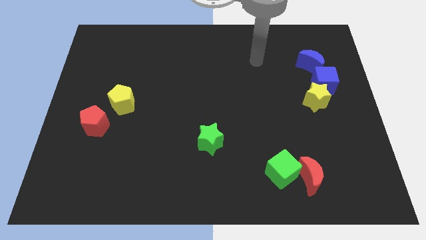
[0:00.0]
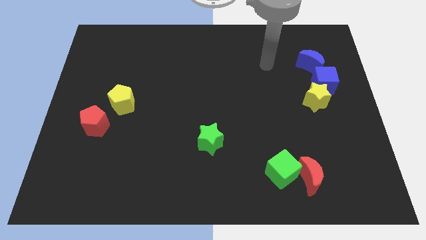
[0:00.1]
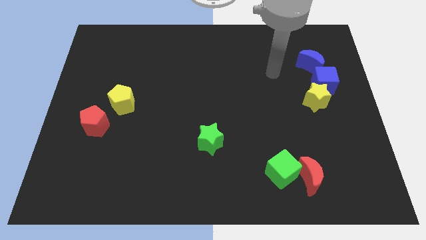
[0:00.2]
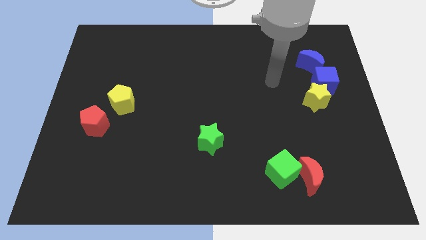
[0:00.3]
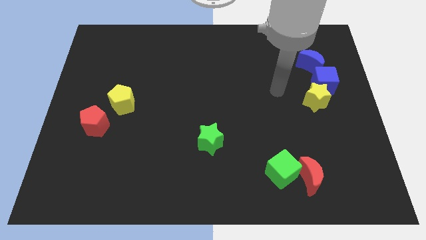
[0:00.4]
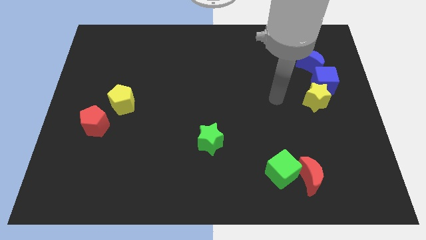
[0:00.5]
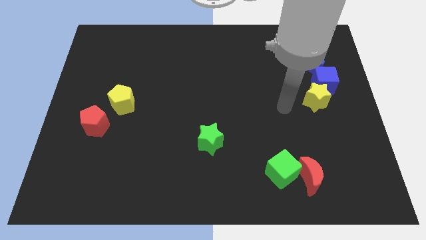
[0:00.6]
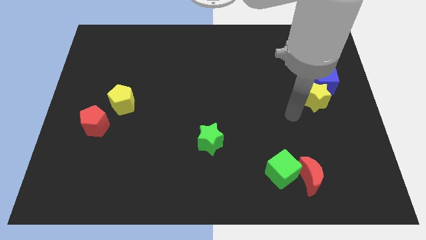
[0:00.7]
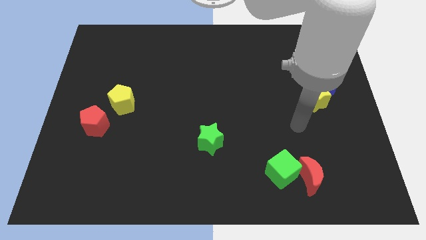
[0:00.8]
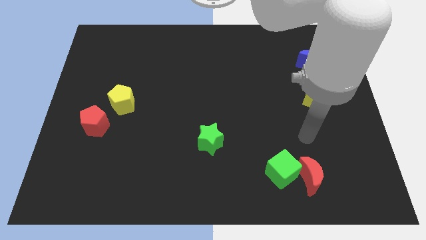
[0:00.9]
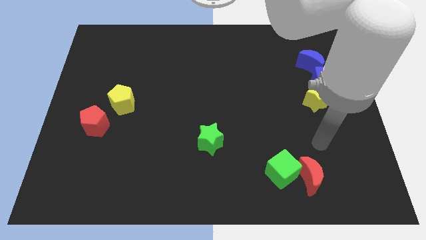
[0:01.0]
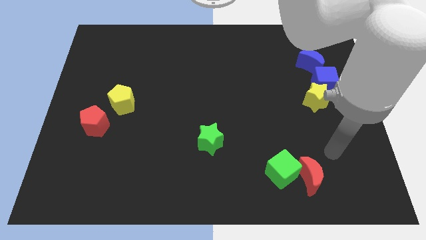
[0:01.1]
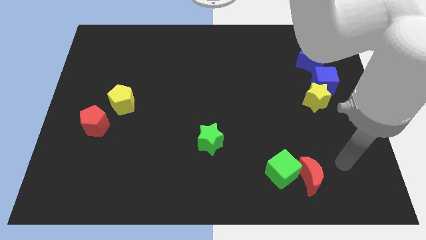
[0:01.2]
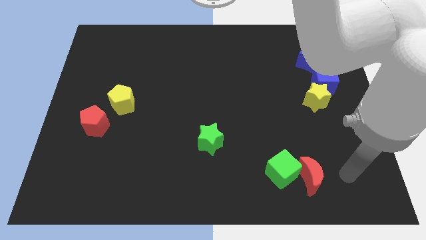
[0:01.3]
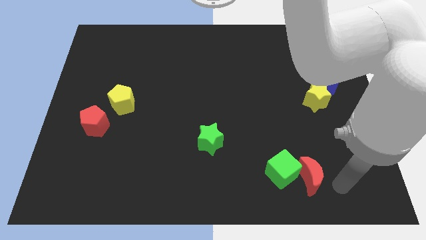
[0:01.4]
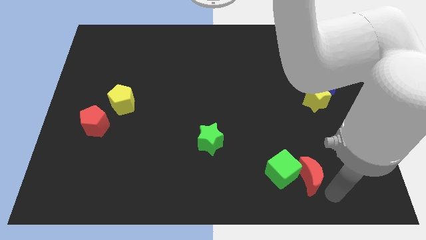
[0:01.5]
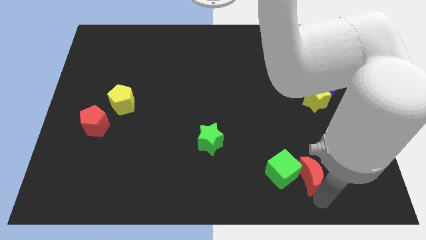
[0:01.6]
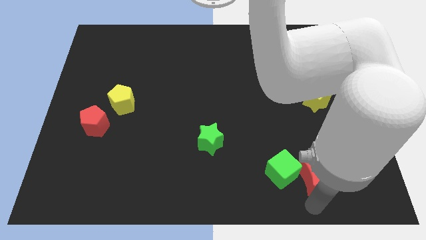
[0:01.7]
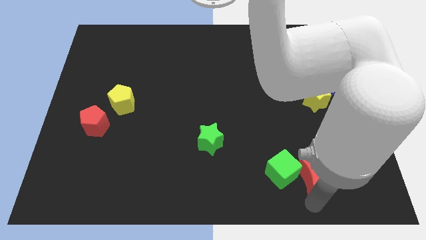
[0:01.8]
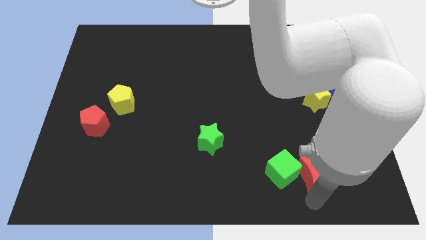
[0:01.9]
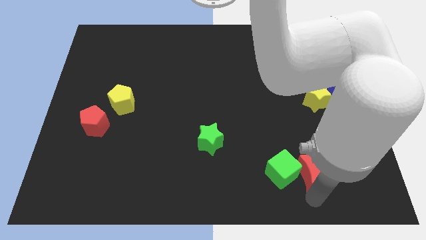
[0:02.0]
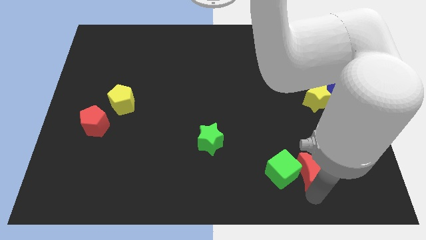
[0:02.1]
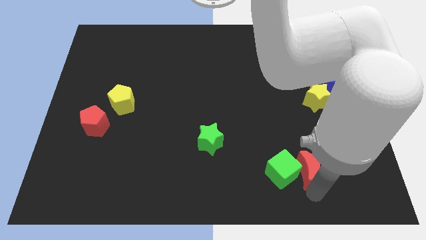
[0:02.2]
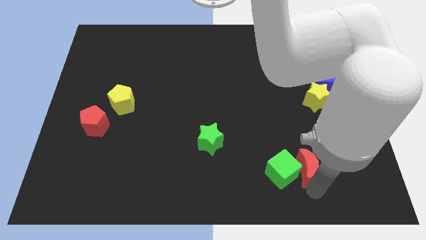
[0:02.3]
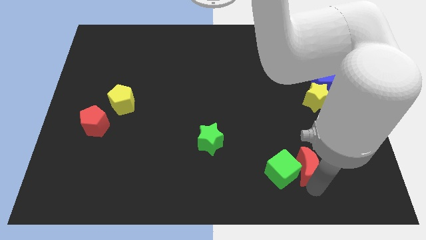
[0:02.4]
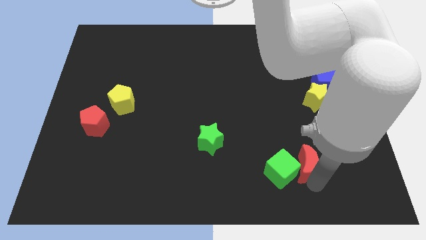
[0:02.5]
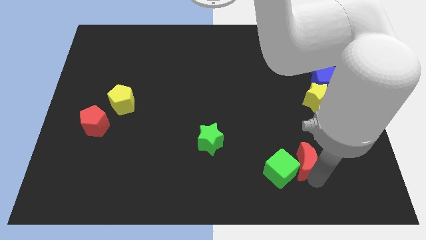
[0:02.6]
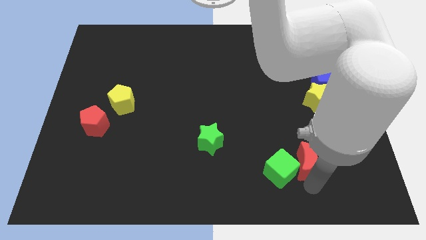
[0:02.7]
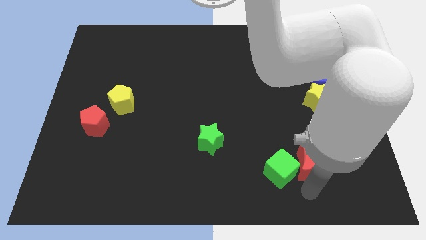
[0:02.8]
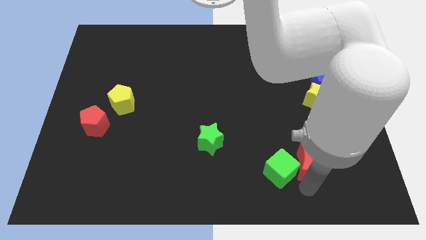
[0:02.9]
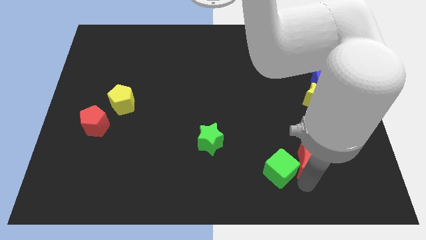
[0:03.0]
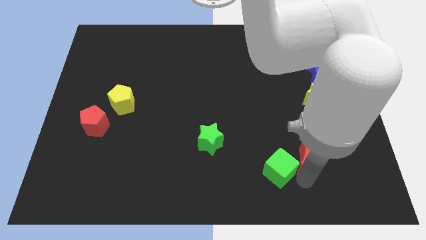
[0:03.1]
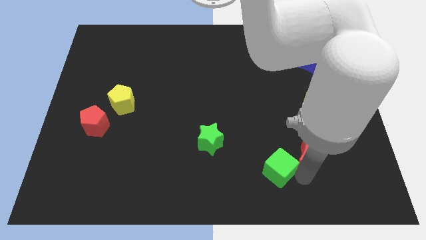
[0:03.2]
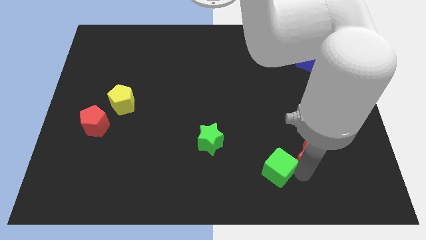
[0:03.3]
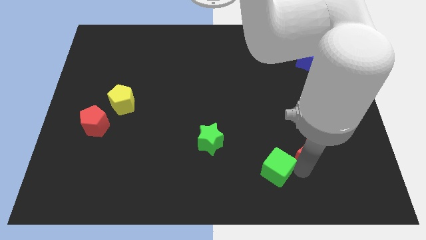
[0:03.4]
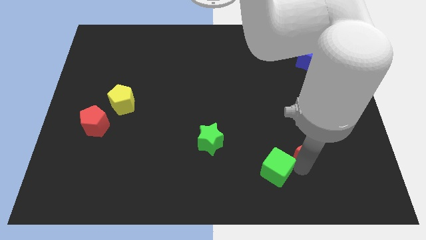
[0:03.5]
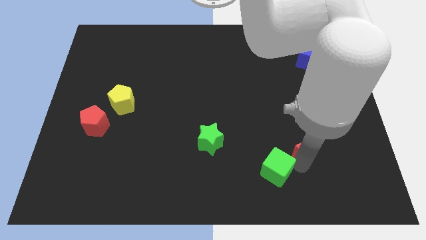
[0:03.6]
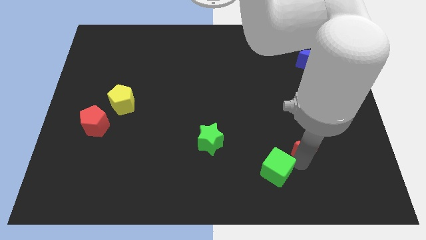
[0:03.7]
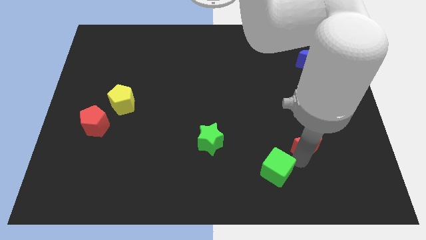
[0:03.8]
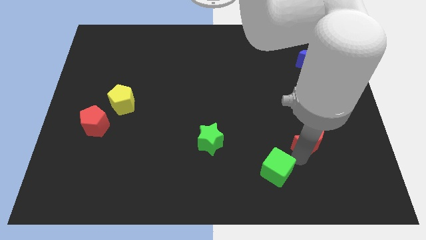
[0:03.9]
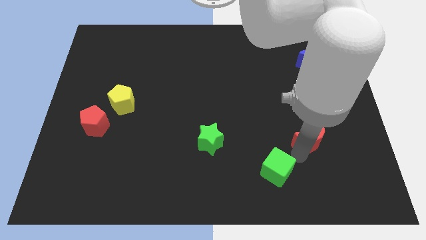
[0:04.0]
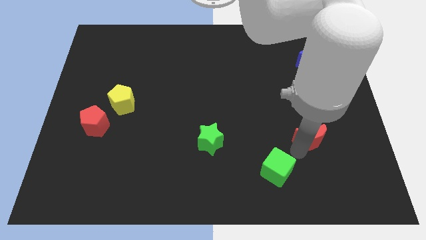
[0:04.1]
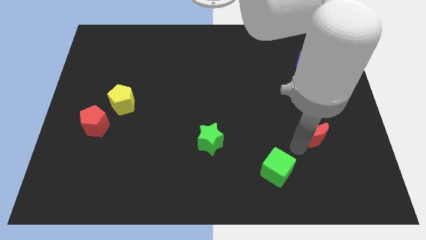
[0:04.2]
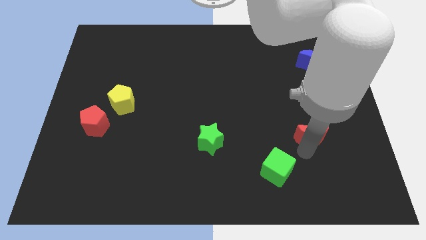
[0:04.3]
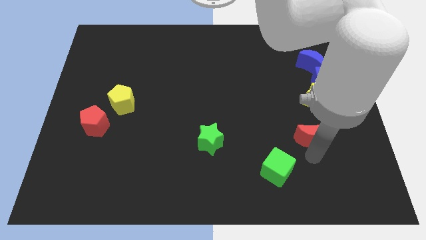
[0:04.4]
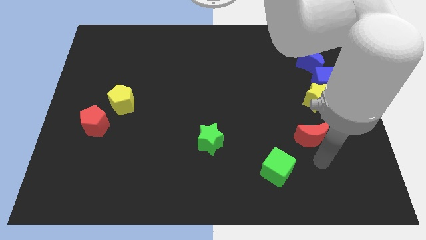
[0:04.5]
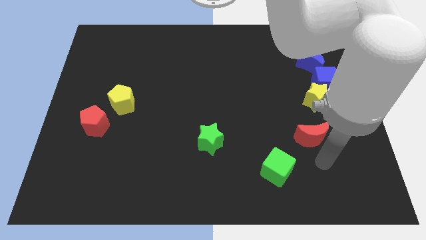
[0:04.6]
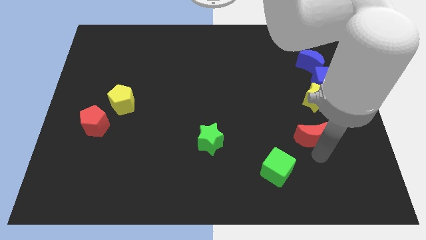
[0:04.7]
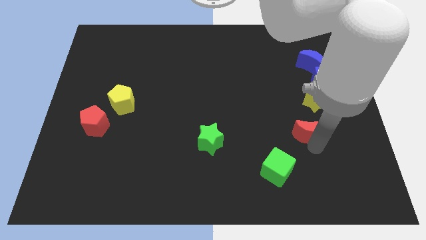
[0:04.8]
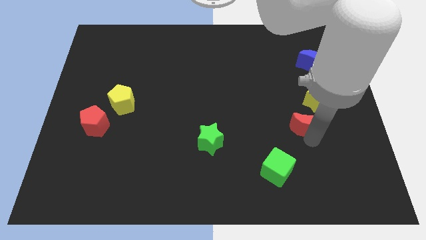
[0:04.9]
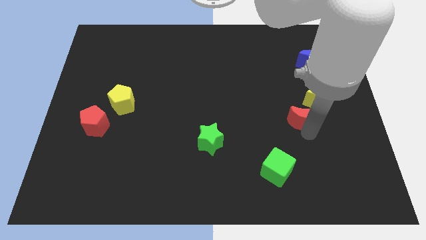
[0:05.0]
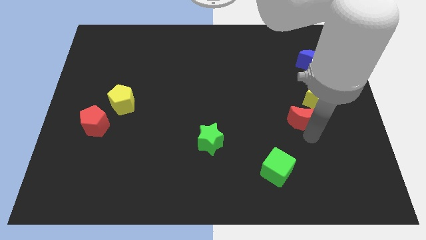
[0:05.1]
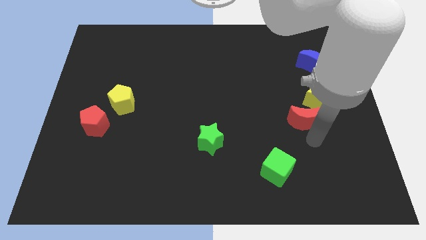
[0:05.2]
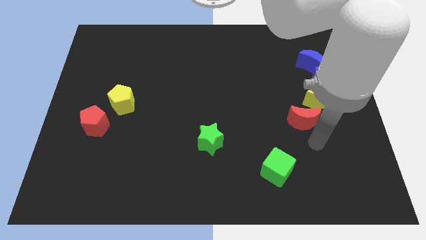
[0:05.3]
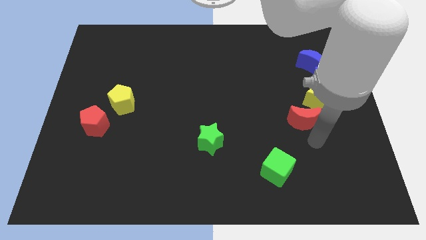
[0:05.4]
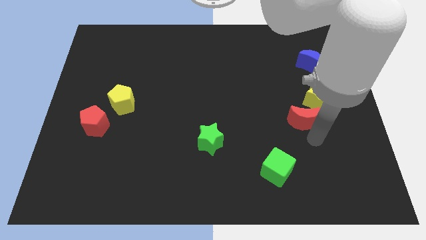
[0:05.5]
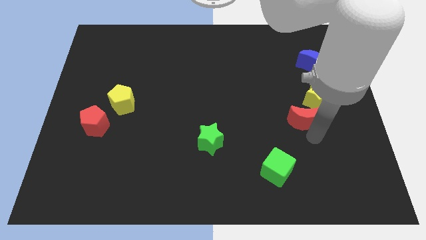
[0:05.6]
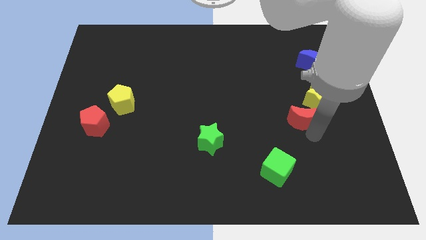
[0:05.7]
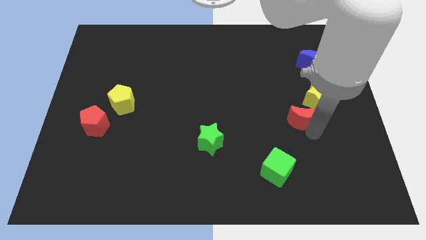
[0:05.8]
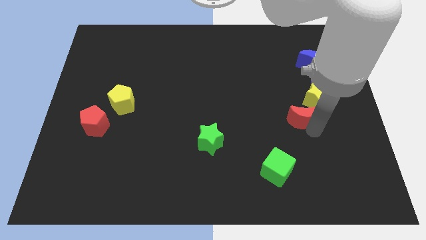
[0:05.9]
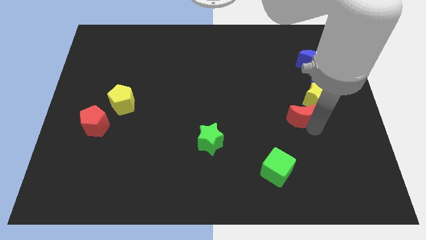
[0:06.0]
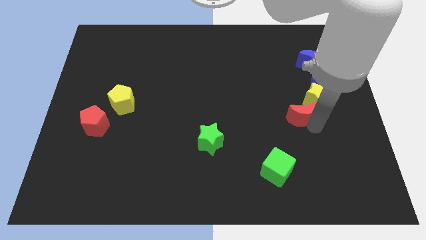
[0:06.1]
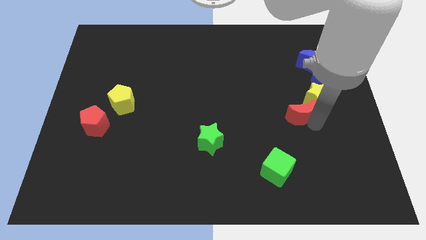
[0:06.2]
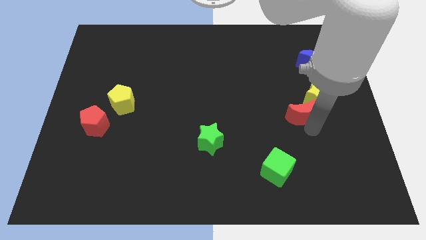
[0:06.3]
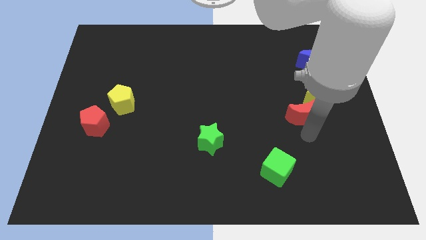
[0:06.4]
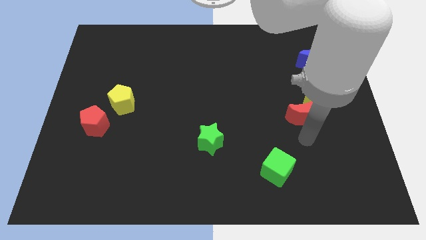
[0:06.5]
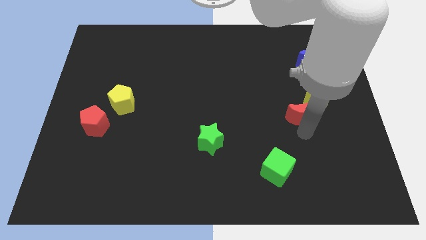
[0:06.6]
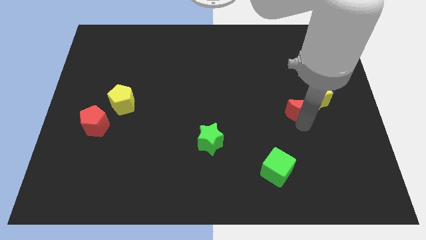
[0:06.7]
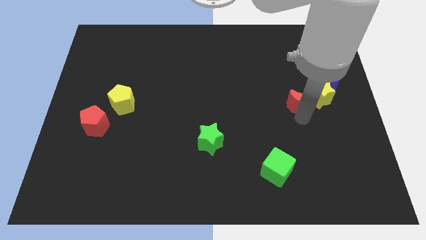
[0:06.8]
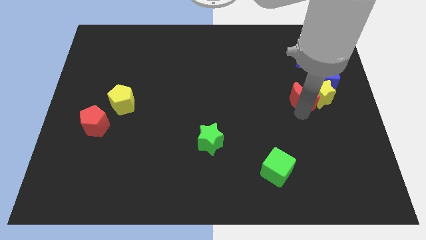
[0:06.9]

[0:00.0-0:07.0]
push the red moon up

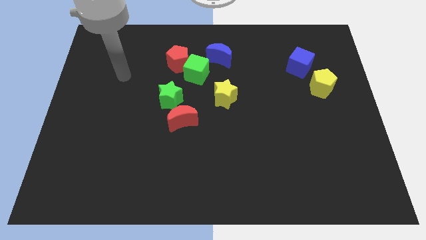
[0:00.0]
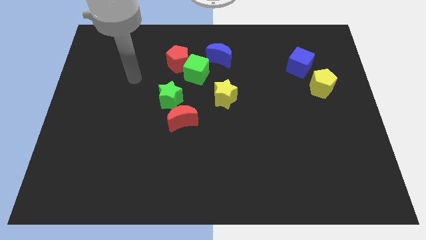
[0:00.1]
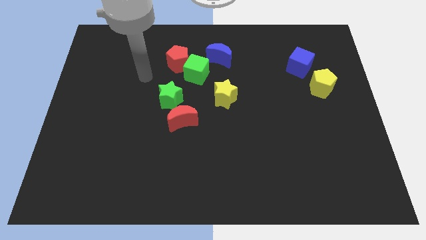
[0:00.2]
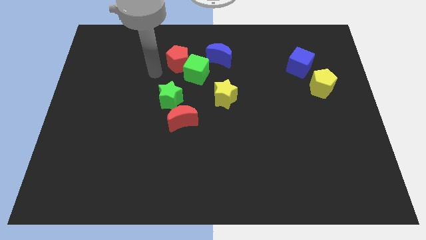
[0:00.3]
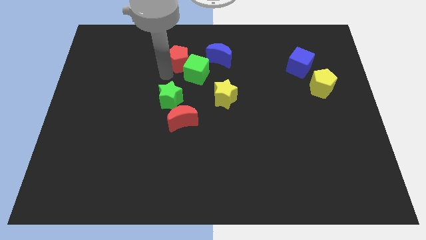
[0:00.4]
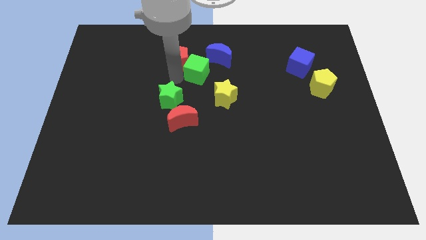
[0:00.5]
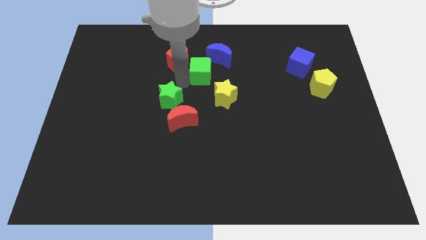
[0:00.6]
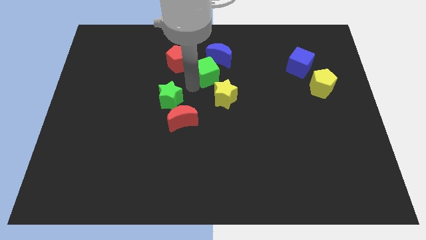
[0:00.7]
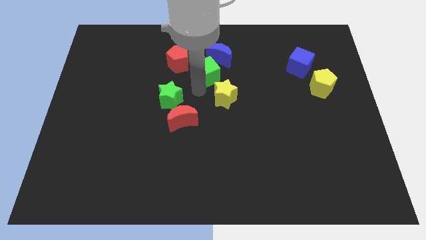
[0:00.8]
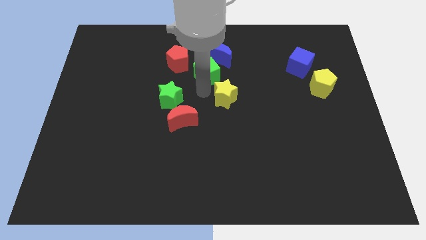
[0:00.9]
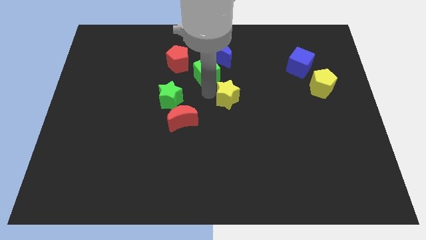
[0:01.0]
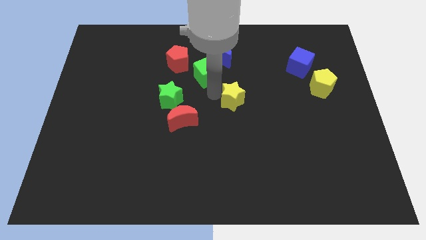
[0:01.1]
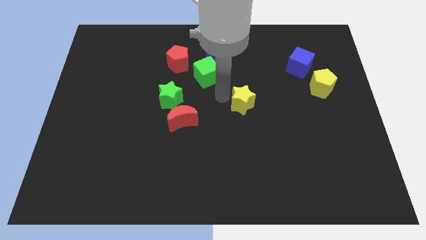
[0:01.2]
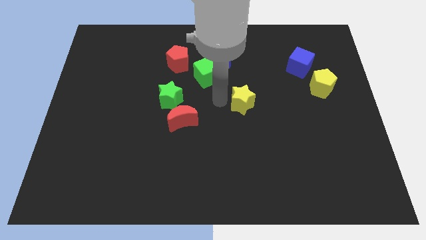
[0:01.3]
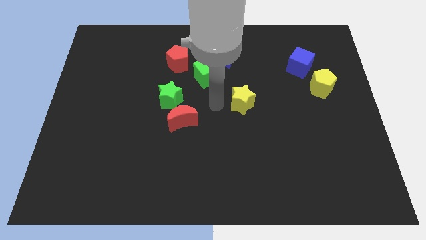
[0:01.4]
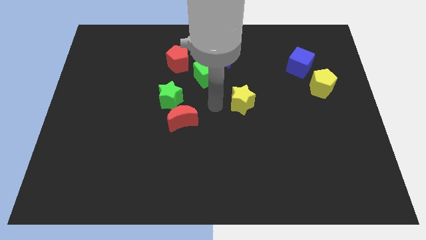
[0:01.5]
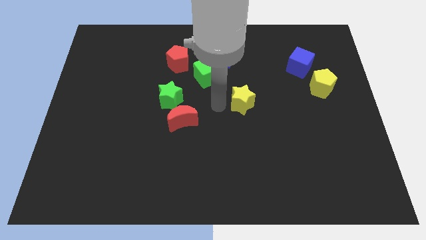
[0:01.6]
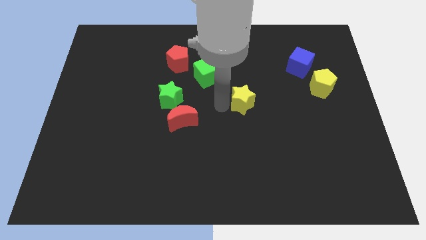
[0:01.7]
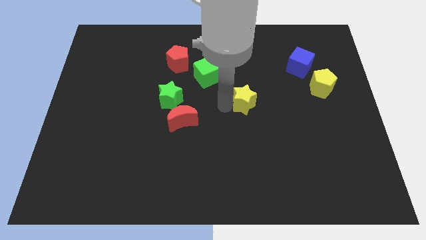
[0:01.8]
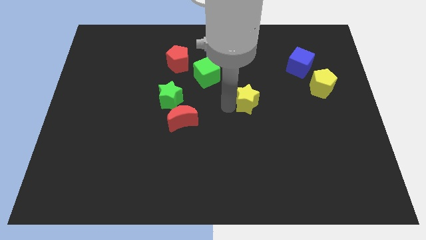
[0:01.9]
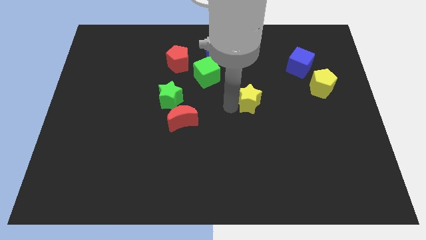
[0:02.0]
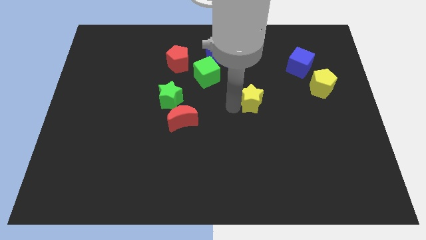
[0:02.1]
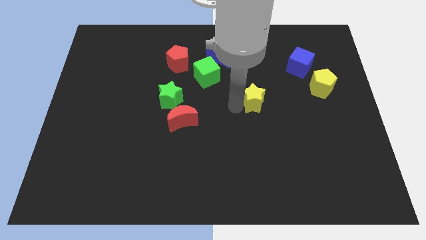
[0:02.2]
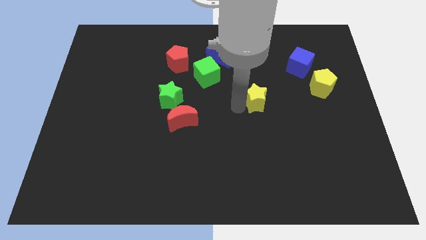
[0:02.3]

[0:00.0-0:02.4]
slide the yellow star to the right slightly
